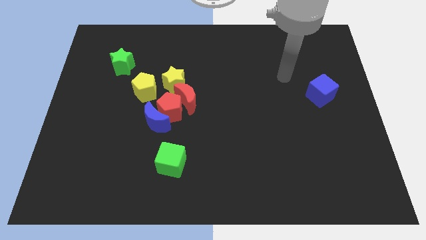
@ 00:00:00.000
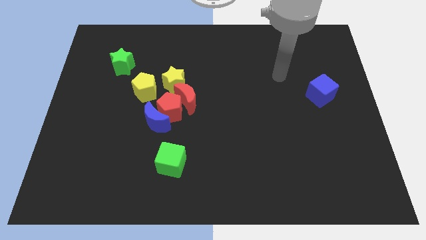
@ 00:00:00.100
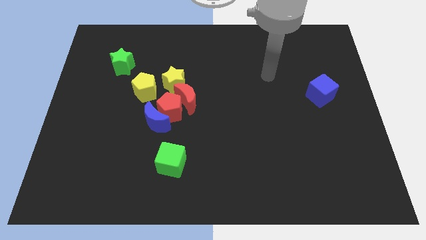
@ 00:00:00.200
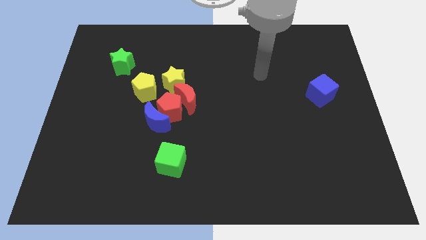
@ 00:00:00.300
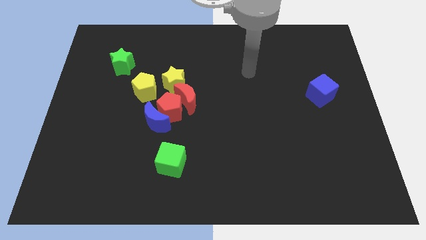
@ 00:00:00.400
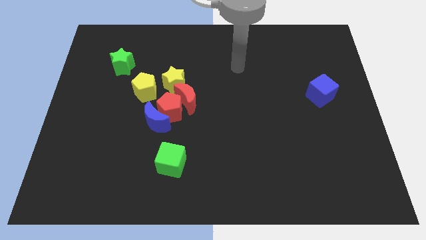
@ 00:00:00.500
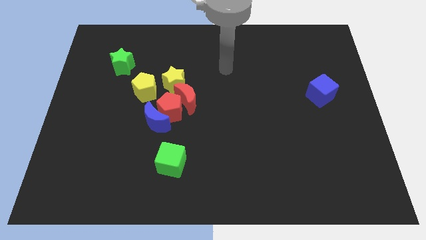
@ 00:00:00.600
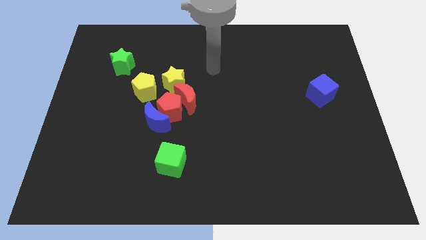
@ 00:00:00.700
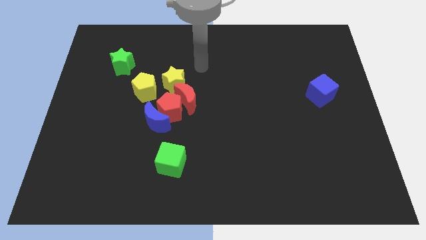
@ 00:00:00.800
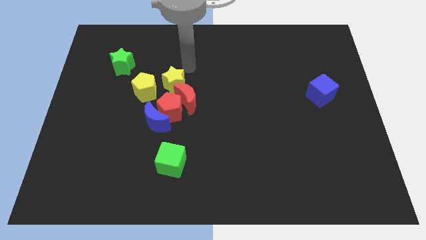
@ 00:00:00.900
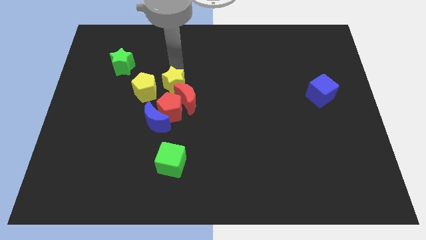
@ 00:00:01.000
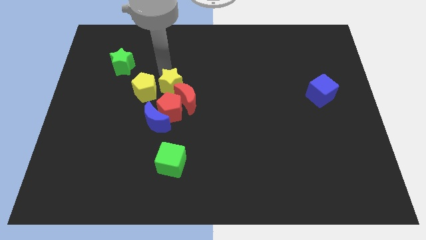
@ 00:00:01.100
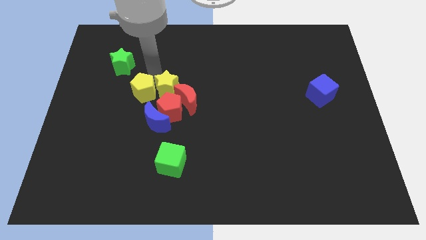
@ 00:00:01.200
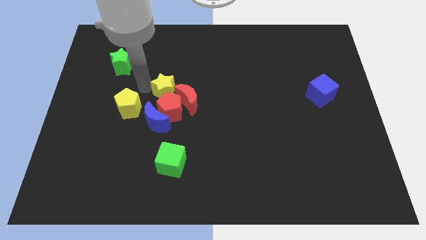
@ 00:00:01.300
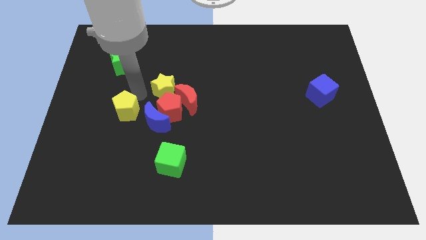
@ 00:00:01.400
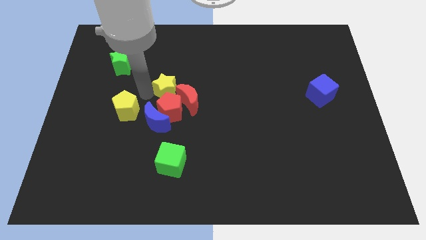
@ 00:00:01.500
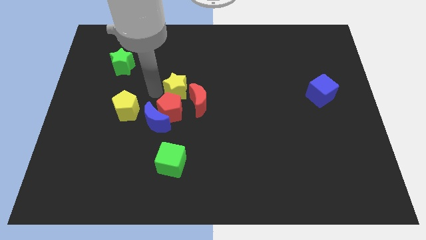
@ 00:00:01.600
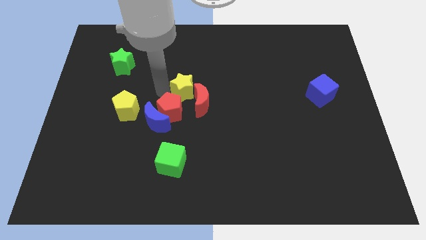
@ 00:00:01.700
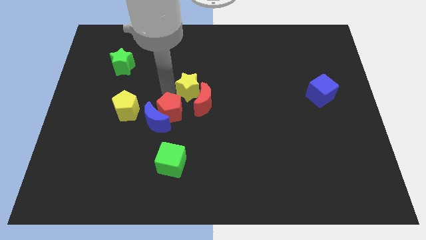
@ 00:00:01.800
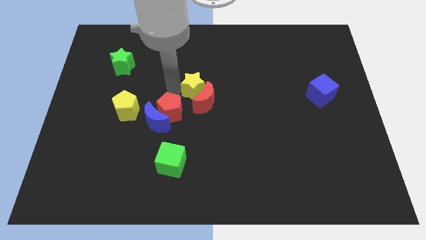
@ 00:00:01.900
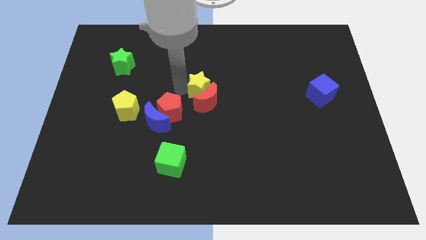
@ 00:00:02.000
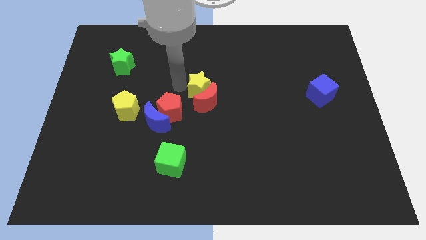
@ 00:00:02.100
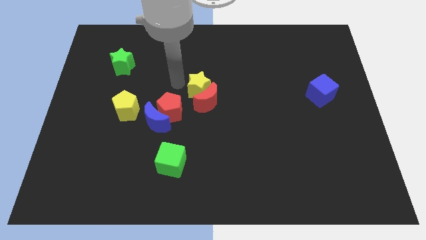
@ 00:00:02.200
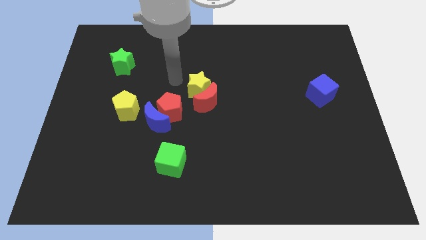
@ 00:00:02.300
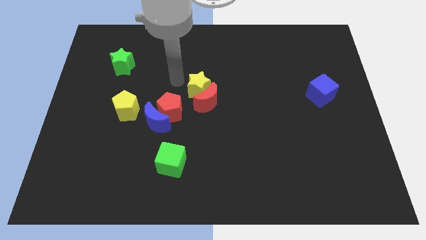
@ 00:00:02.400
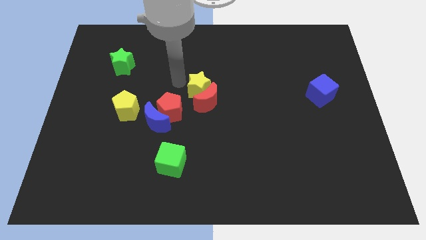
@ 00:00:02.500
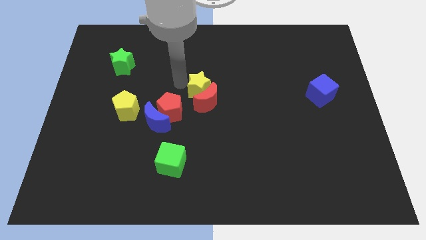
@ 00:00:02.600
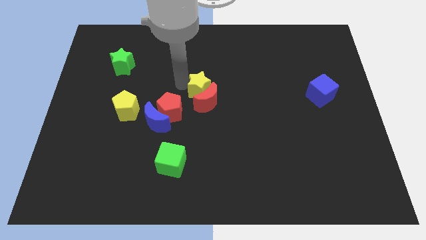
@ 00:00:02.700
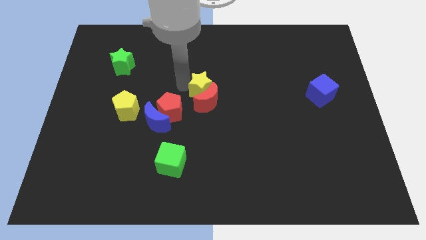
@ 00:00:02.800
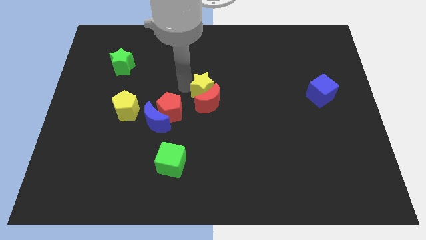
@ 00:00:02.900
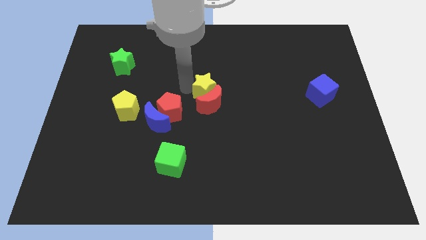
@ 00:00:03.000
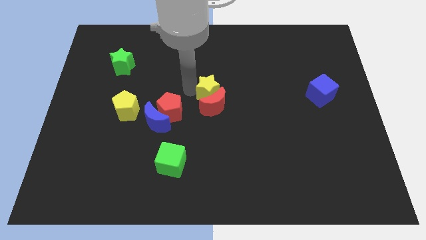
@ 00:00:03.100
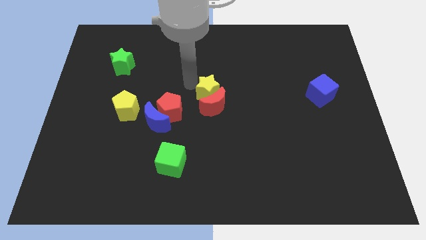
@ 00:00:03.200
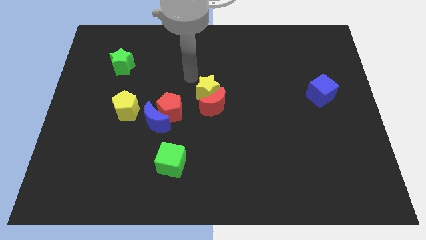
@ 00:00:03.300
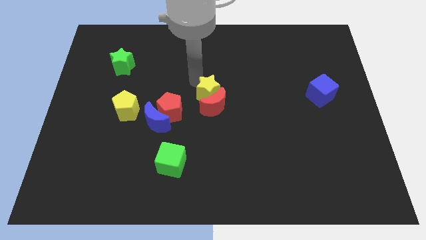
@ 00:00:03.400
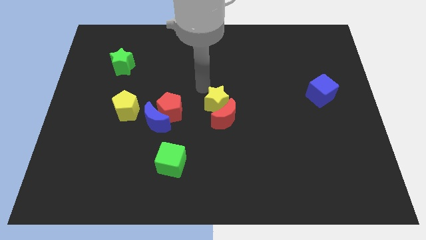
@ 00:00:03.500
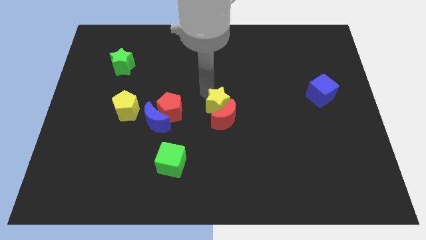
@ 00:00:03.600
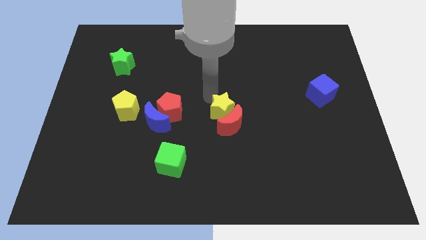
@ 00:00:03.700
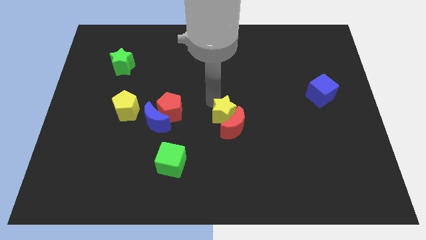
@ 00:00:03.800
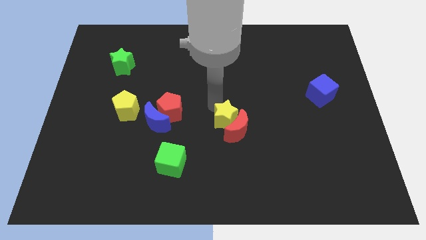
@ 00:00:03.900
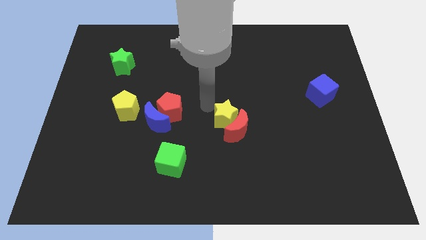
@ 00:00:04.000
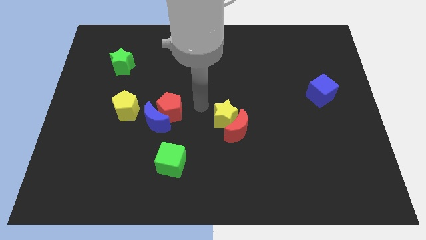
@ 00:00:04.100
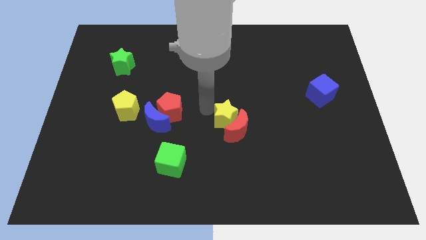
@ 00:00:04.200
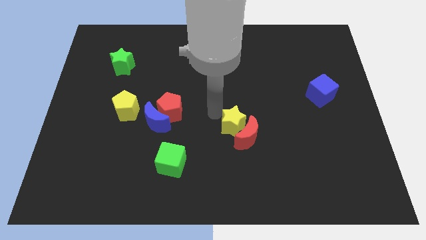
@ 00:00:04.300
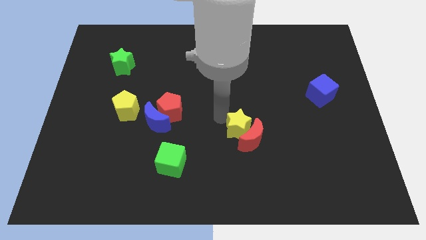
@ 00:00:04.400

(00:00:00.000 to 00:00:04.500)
push the yellow star downwards and to the right diagonally

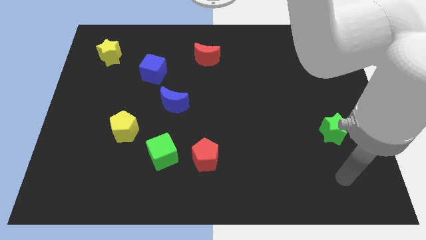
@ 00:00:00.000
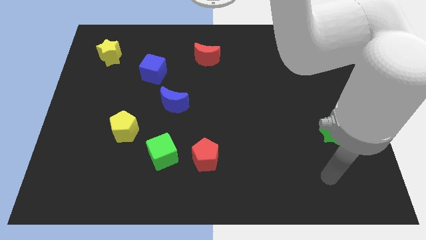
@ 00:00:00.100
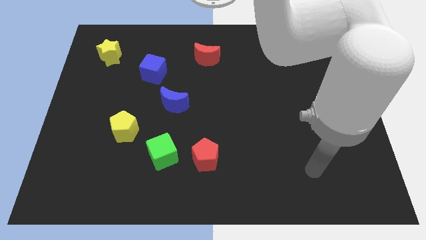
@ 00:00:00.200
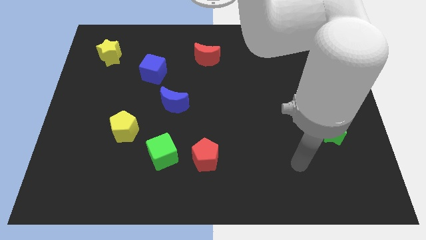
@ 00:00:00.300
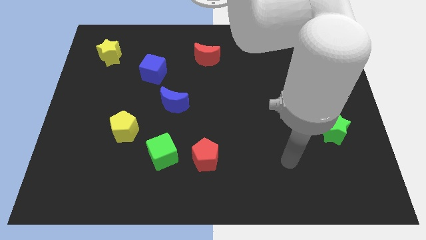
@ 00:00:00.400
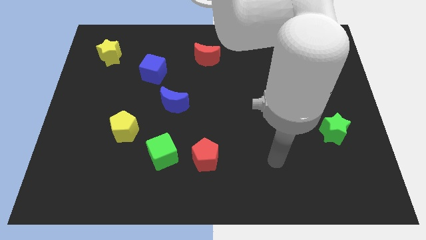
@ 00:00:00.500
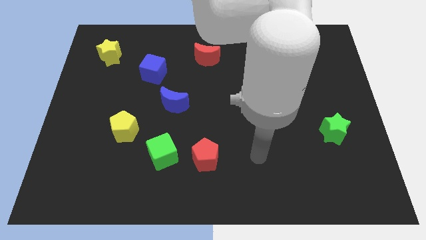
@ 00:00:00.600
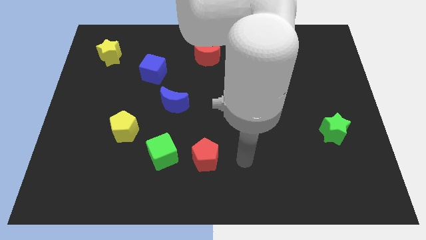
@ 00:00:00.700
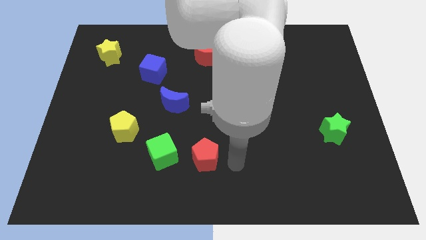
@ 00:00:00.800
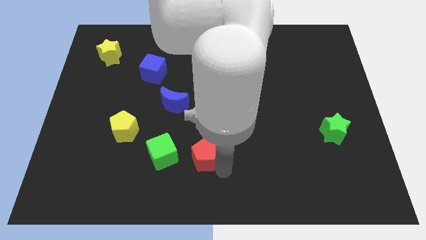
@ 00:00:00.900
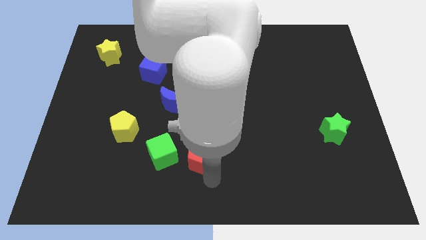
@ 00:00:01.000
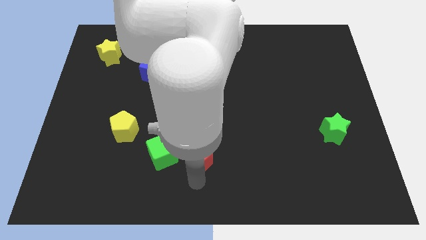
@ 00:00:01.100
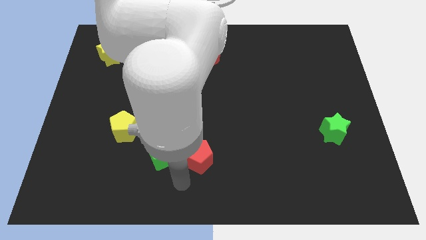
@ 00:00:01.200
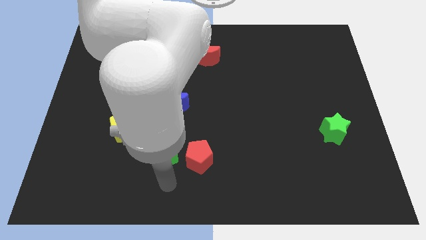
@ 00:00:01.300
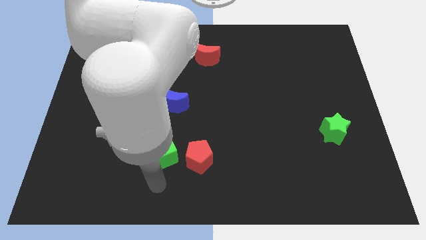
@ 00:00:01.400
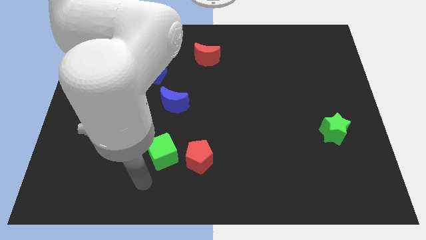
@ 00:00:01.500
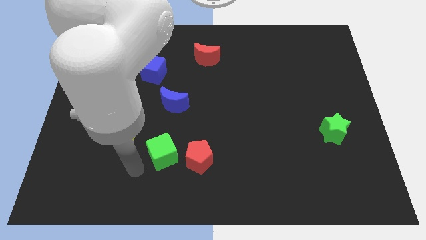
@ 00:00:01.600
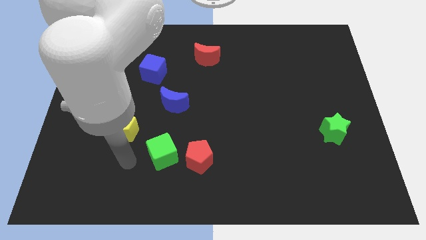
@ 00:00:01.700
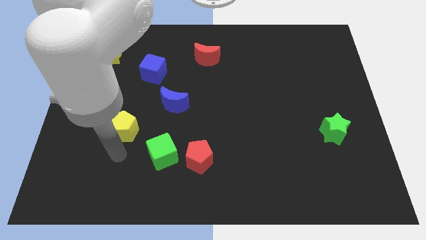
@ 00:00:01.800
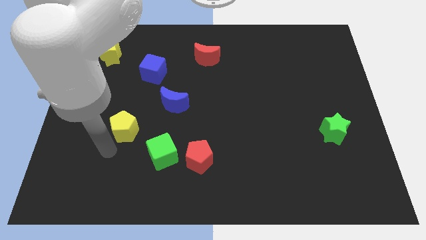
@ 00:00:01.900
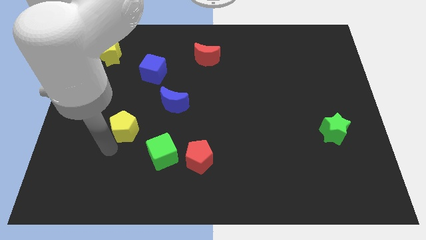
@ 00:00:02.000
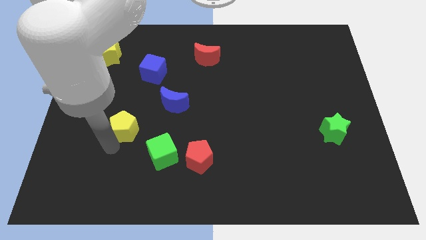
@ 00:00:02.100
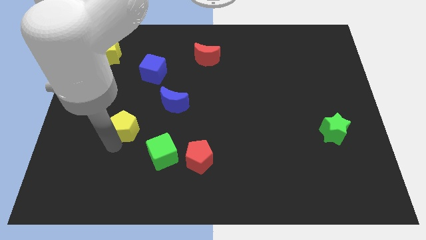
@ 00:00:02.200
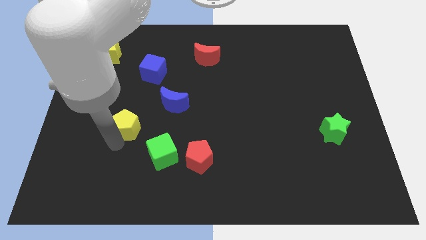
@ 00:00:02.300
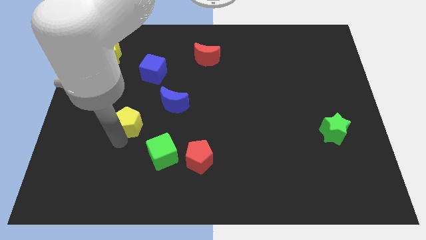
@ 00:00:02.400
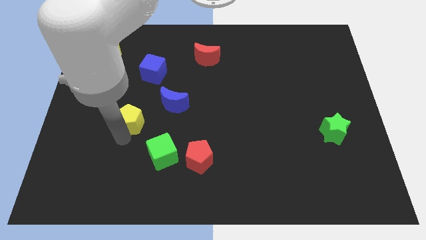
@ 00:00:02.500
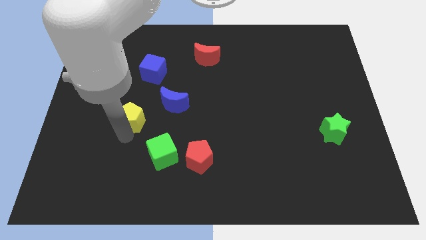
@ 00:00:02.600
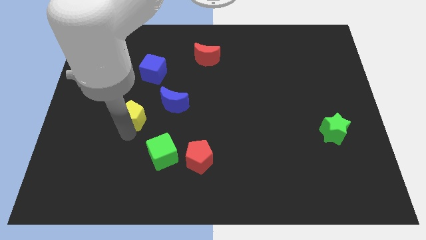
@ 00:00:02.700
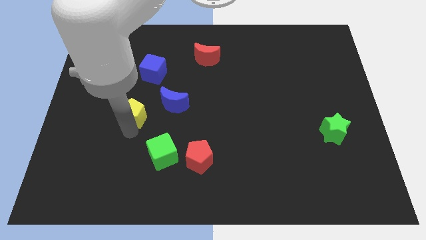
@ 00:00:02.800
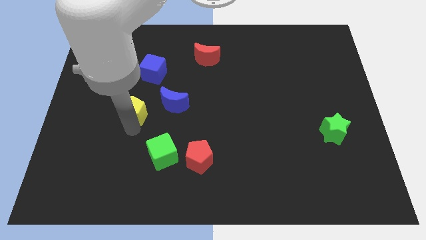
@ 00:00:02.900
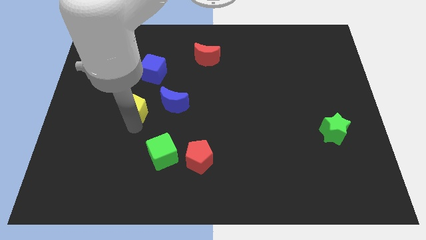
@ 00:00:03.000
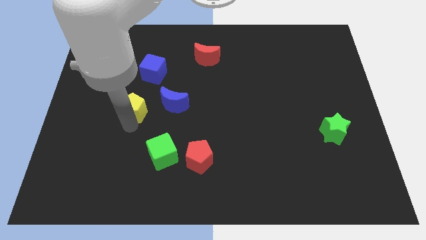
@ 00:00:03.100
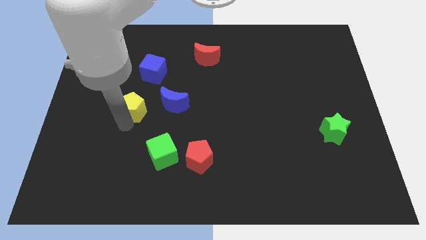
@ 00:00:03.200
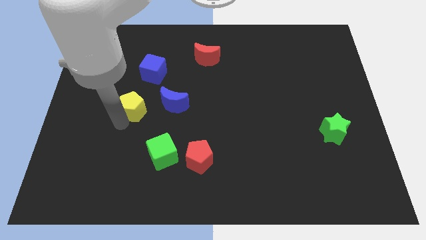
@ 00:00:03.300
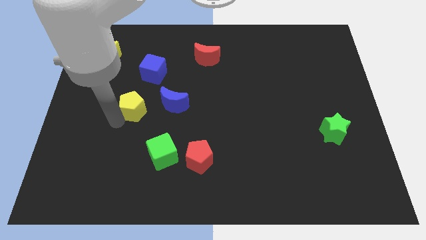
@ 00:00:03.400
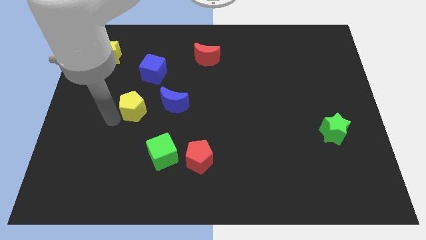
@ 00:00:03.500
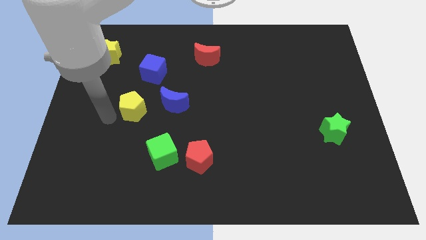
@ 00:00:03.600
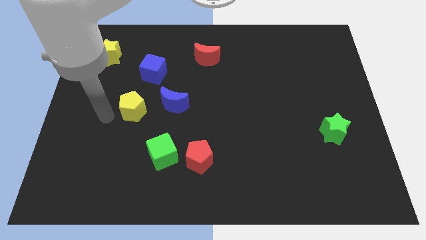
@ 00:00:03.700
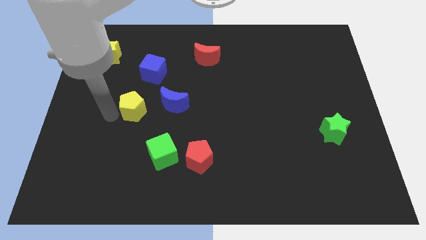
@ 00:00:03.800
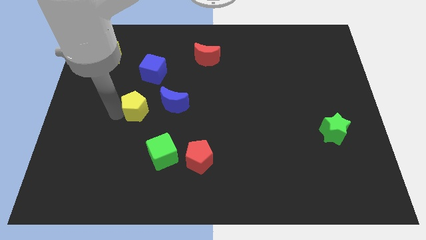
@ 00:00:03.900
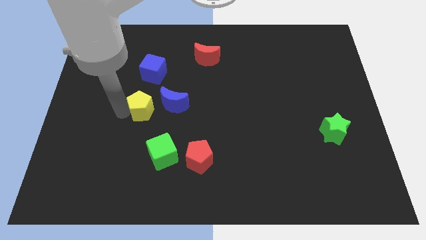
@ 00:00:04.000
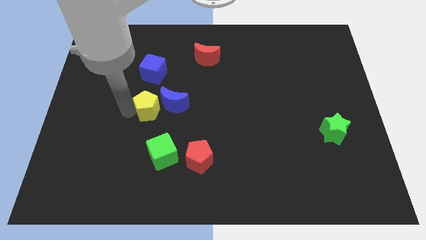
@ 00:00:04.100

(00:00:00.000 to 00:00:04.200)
push the yellow pentagon slightly upwards and to the right diagonally
